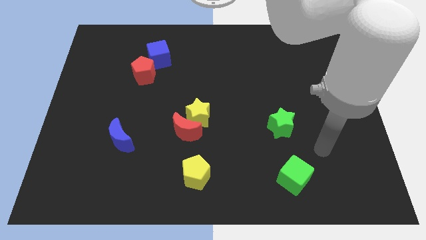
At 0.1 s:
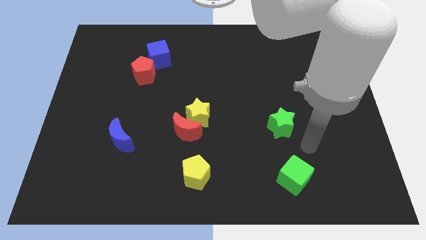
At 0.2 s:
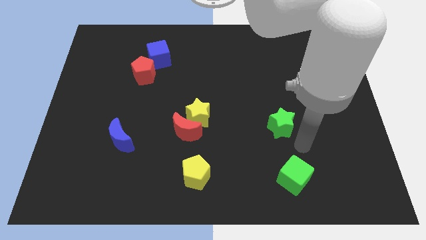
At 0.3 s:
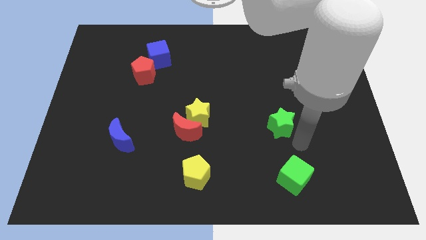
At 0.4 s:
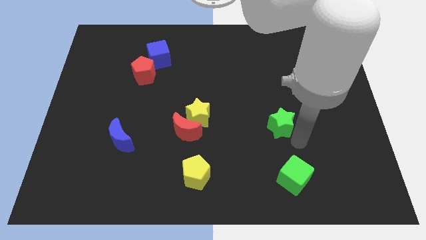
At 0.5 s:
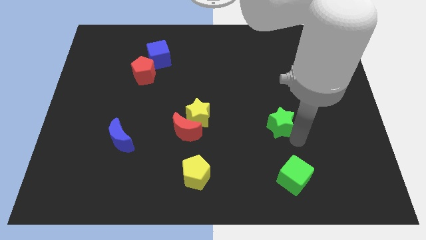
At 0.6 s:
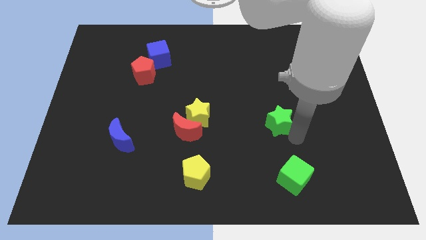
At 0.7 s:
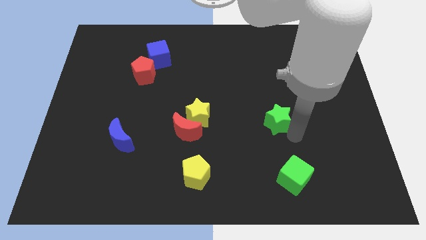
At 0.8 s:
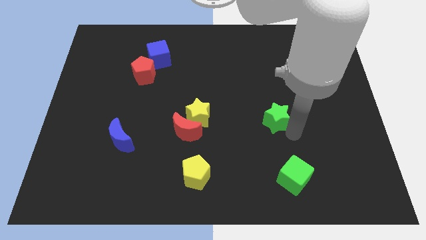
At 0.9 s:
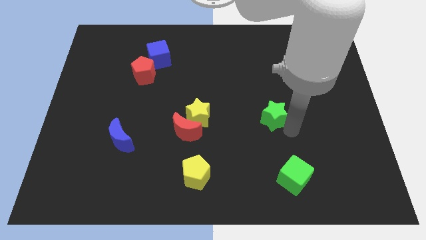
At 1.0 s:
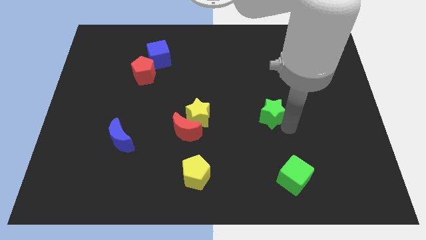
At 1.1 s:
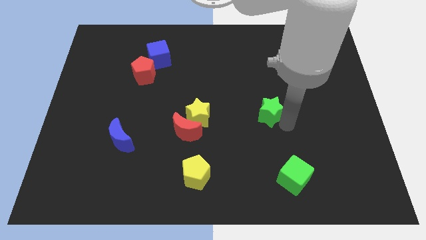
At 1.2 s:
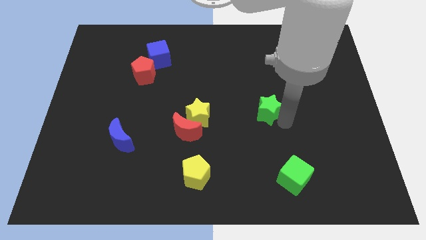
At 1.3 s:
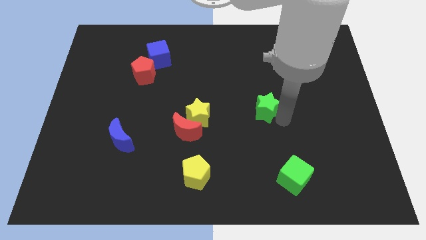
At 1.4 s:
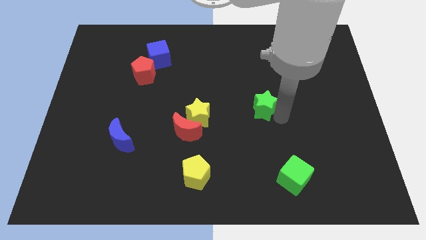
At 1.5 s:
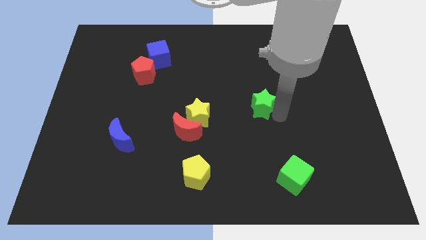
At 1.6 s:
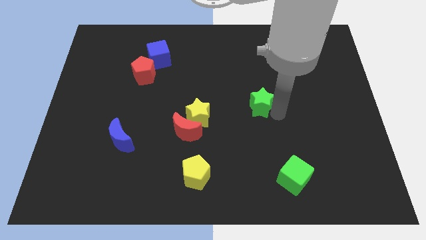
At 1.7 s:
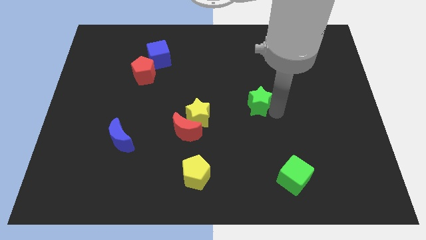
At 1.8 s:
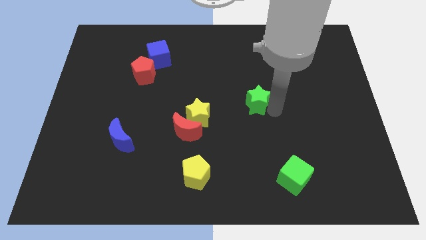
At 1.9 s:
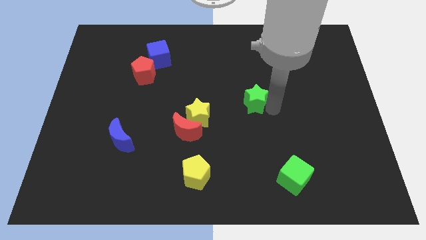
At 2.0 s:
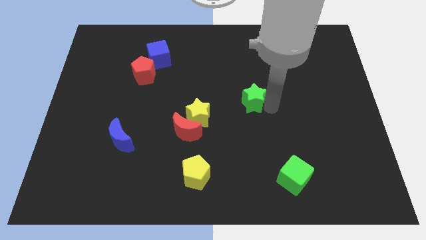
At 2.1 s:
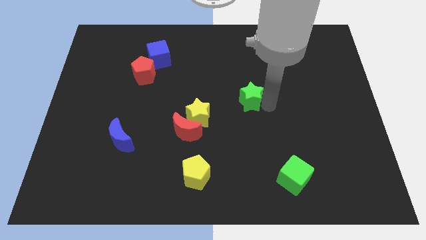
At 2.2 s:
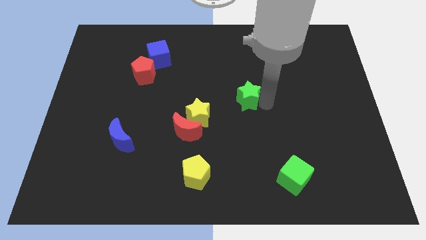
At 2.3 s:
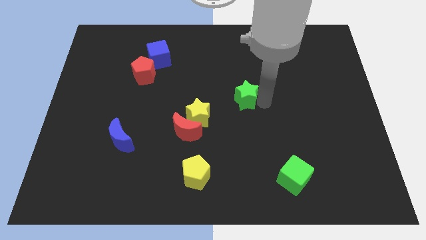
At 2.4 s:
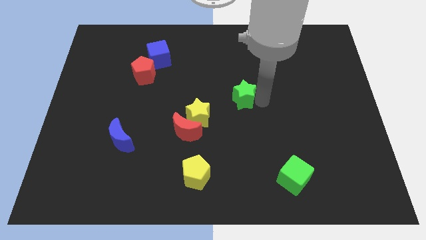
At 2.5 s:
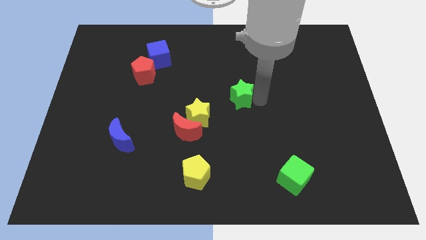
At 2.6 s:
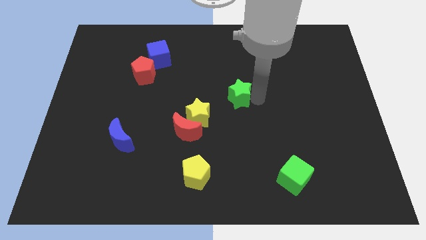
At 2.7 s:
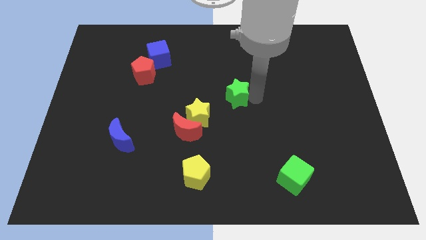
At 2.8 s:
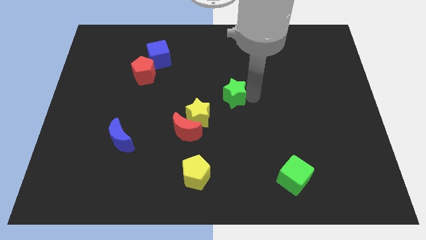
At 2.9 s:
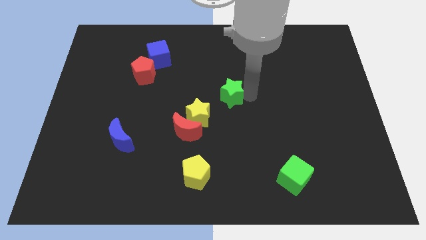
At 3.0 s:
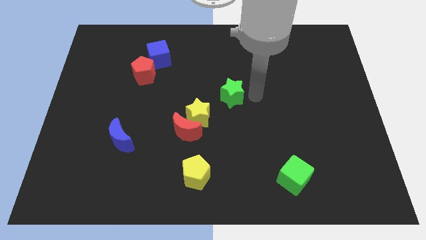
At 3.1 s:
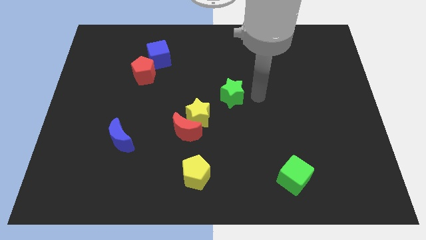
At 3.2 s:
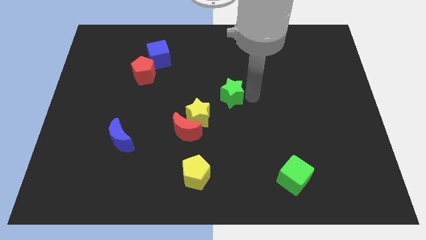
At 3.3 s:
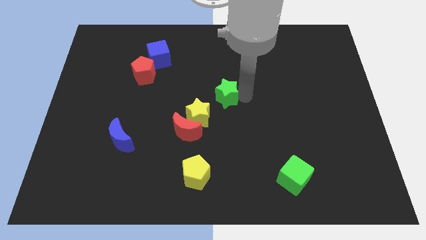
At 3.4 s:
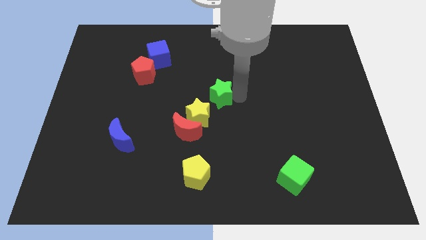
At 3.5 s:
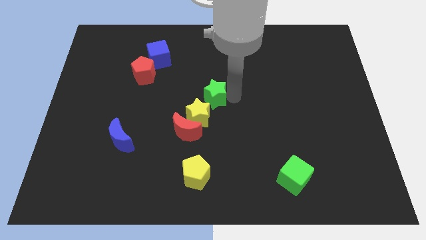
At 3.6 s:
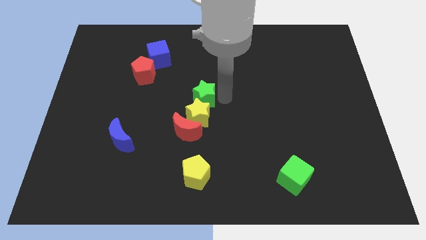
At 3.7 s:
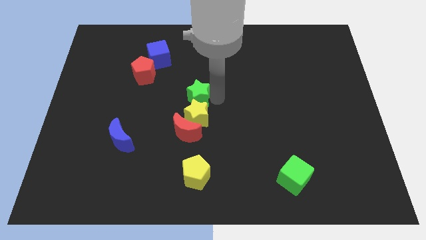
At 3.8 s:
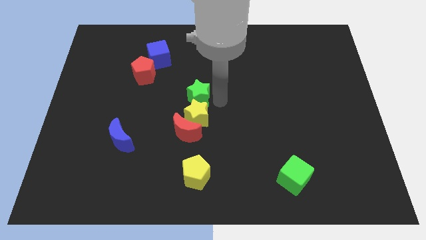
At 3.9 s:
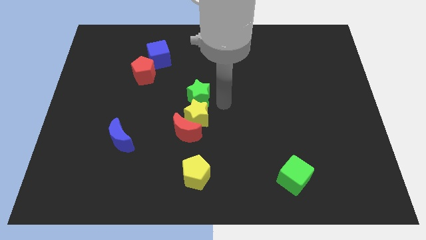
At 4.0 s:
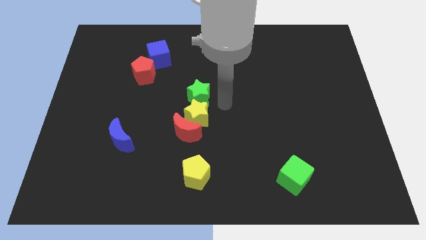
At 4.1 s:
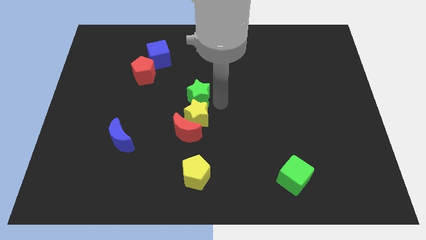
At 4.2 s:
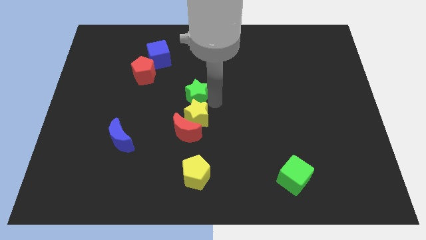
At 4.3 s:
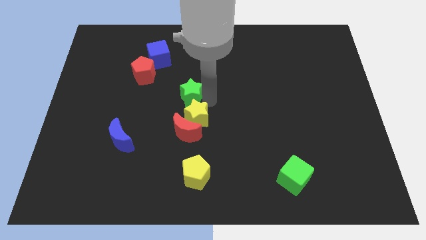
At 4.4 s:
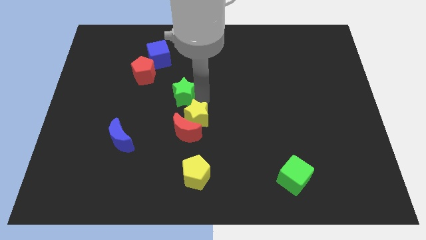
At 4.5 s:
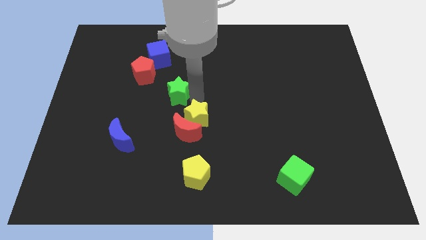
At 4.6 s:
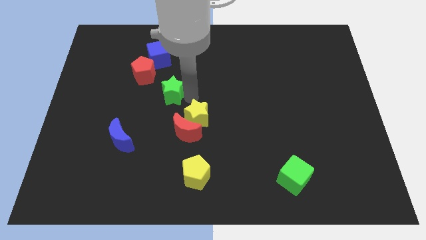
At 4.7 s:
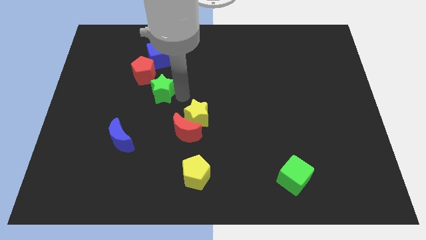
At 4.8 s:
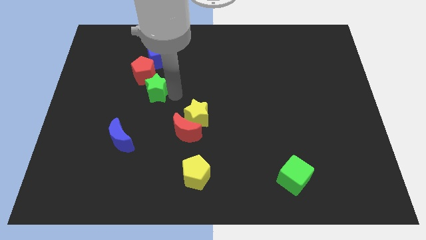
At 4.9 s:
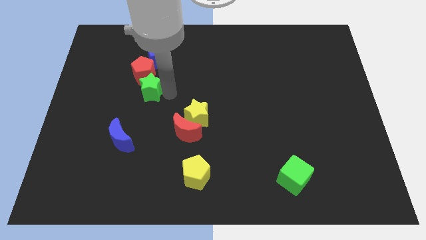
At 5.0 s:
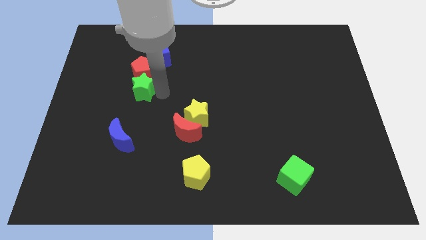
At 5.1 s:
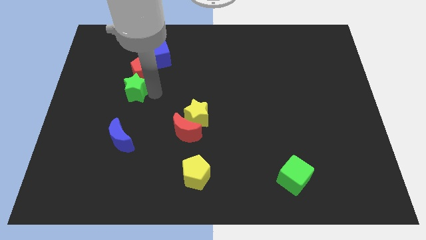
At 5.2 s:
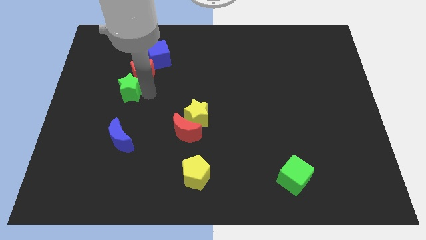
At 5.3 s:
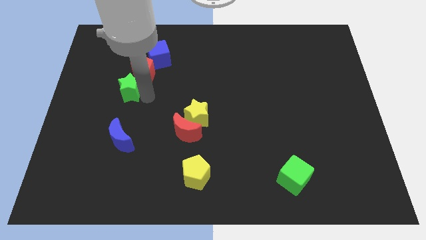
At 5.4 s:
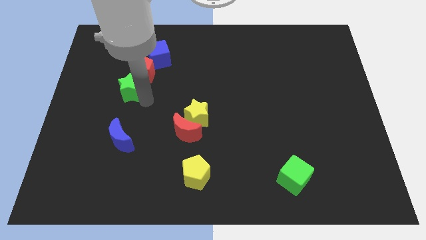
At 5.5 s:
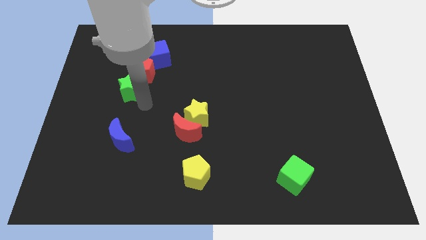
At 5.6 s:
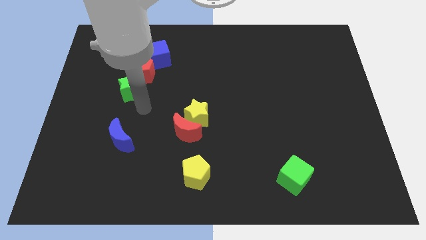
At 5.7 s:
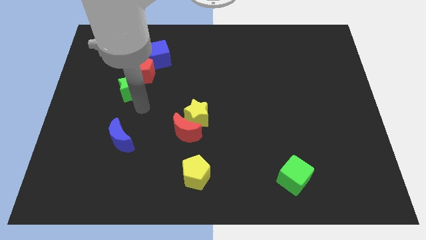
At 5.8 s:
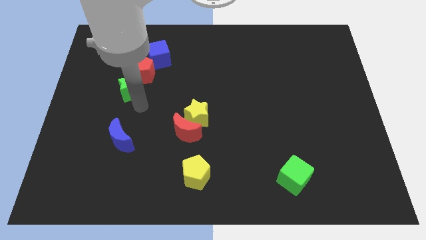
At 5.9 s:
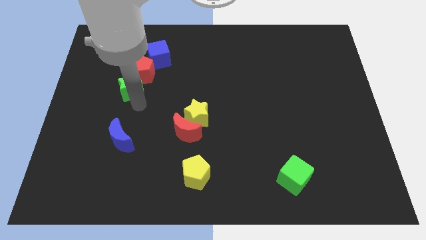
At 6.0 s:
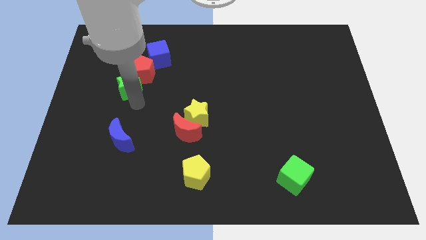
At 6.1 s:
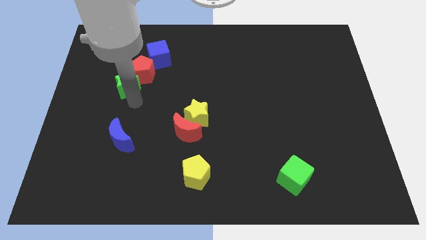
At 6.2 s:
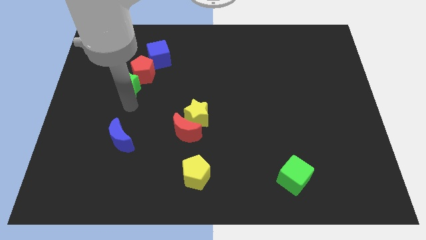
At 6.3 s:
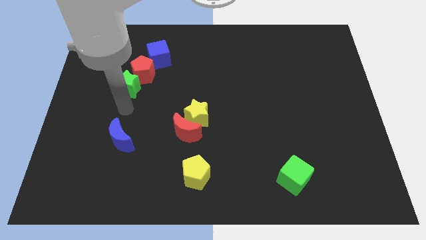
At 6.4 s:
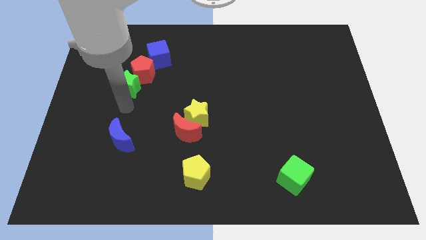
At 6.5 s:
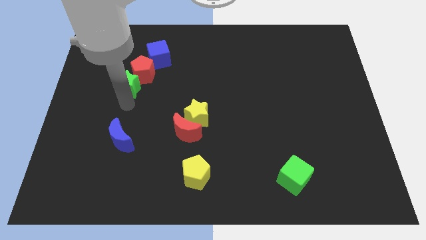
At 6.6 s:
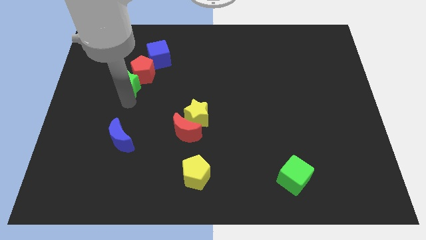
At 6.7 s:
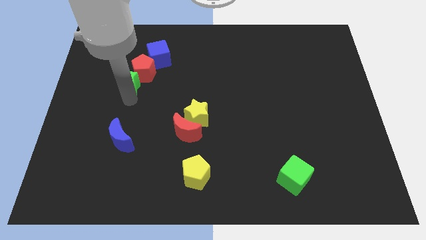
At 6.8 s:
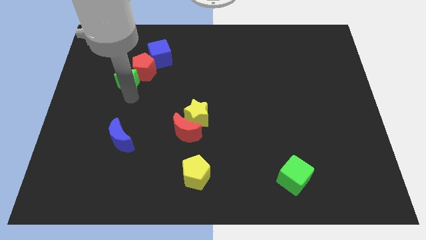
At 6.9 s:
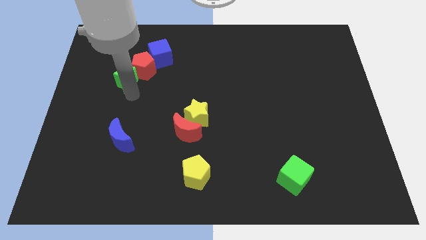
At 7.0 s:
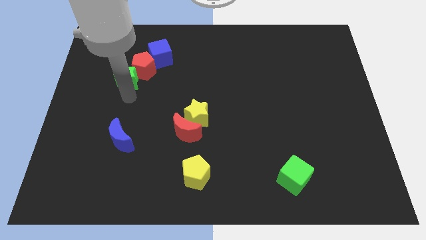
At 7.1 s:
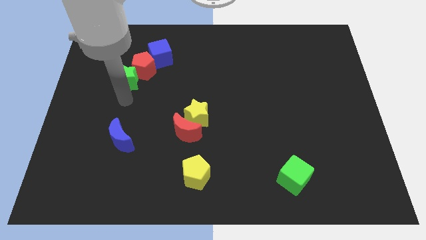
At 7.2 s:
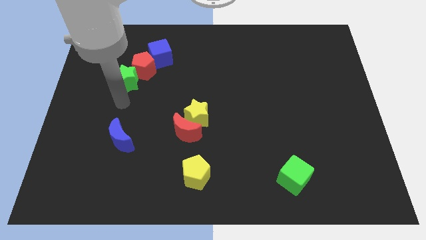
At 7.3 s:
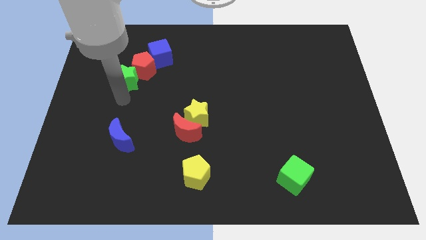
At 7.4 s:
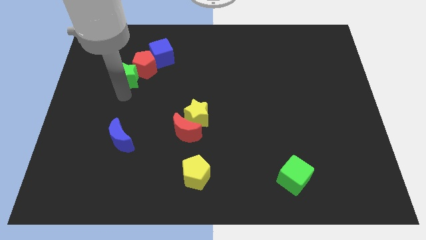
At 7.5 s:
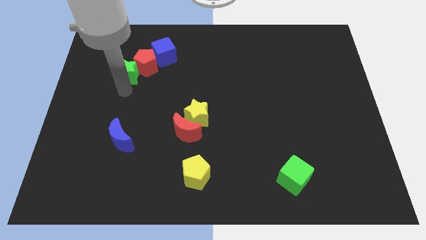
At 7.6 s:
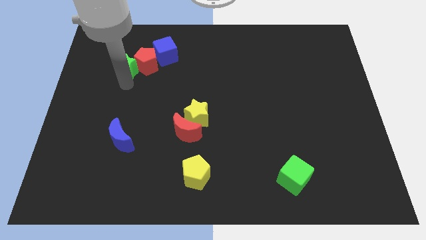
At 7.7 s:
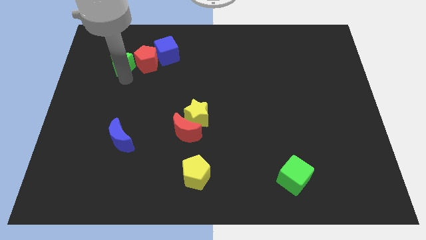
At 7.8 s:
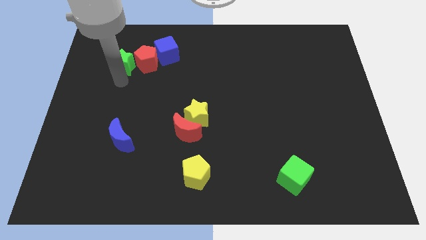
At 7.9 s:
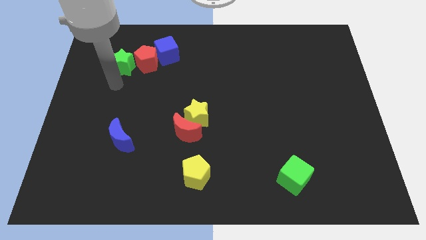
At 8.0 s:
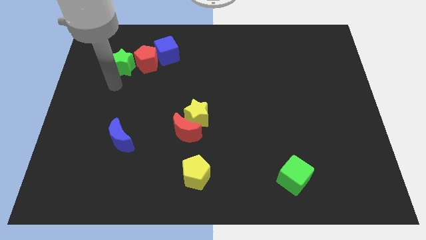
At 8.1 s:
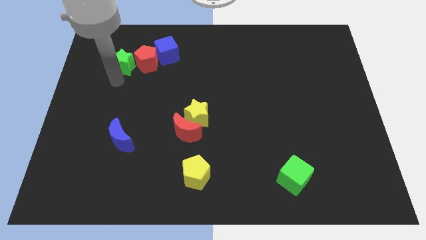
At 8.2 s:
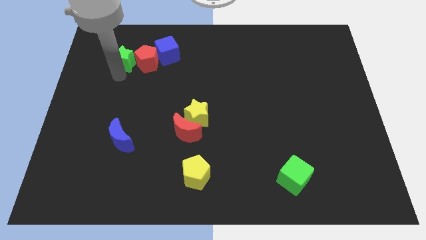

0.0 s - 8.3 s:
slide the green star to the top left side of the red pentagon
